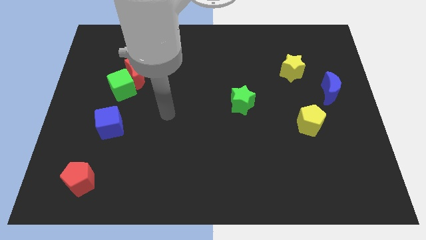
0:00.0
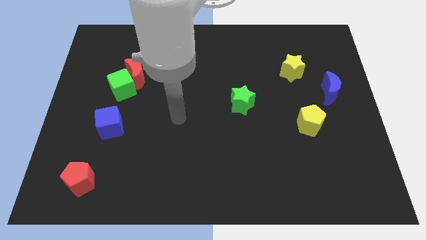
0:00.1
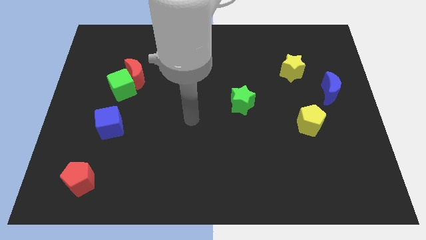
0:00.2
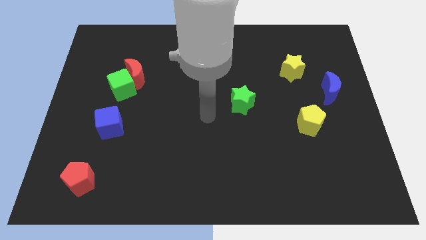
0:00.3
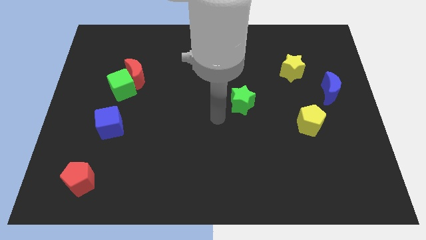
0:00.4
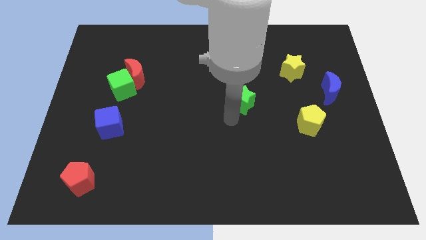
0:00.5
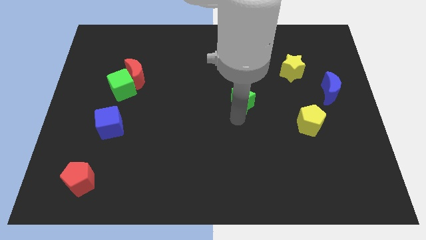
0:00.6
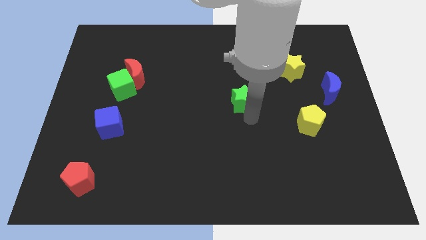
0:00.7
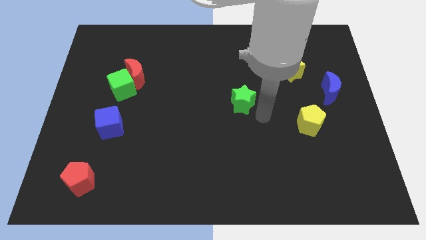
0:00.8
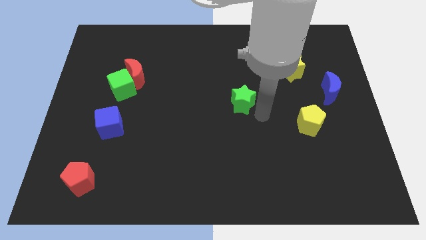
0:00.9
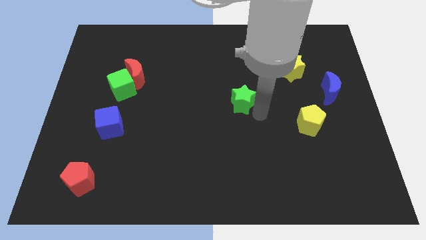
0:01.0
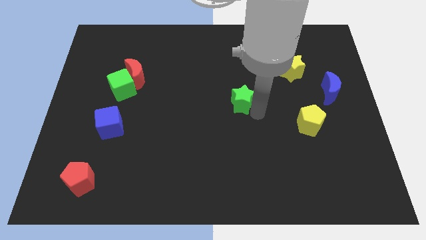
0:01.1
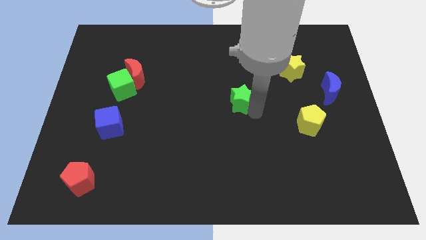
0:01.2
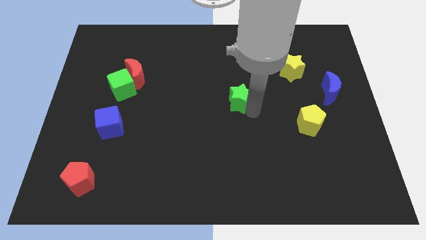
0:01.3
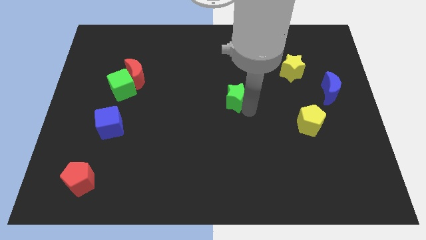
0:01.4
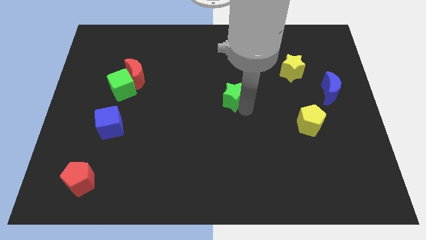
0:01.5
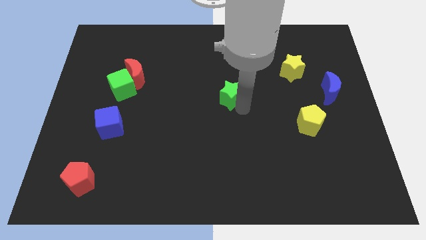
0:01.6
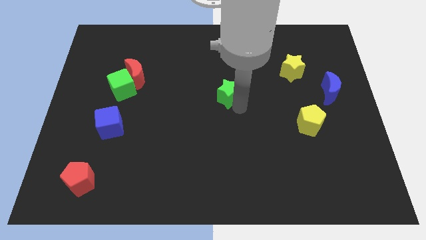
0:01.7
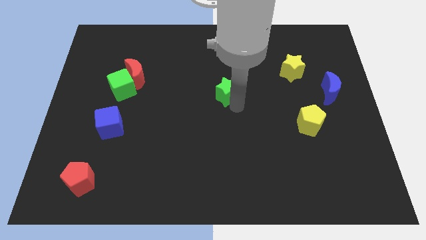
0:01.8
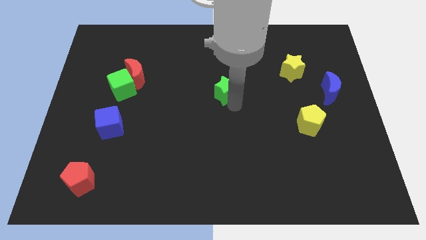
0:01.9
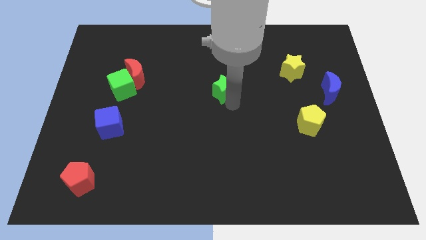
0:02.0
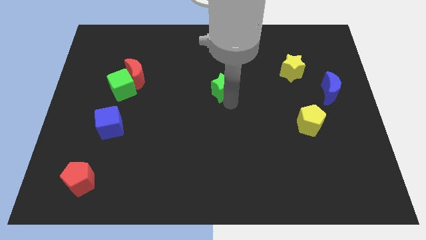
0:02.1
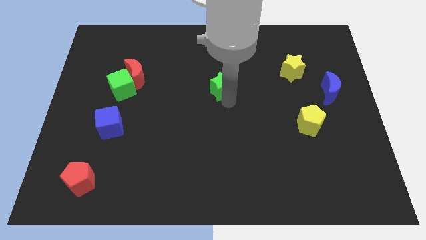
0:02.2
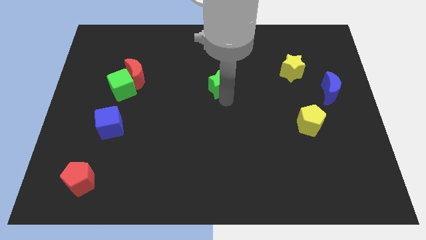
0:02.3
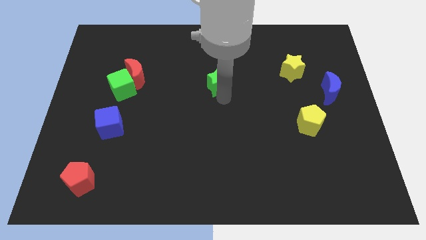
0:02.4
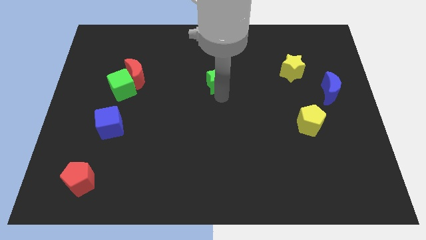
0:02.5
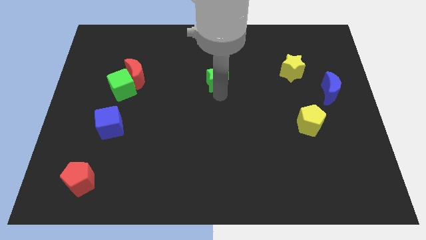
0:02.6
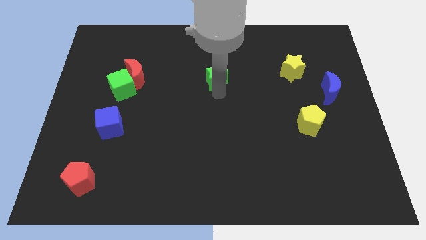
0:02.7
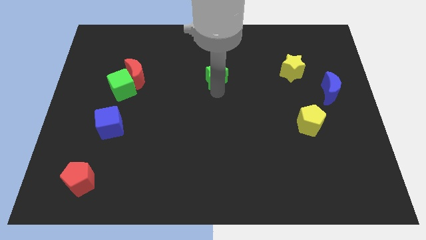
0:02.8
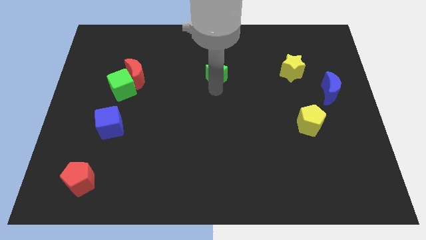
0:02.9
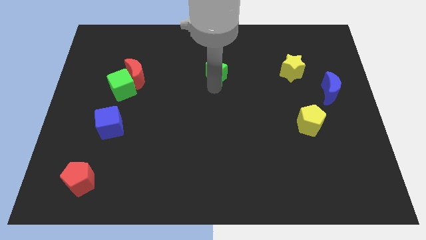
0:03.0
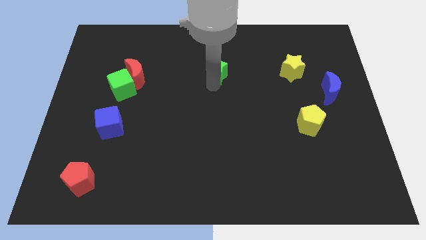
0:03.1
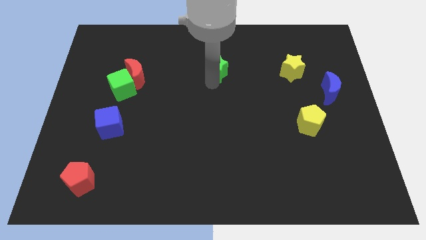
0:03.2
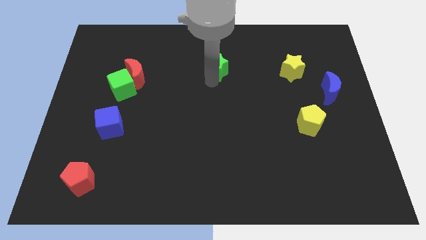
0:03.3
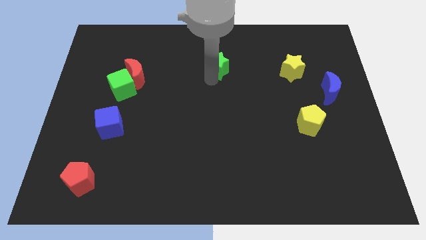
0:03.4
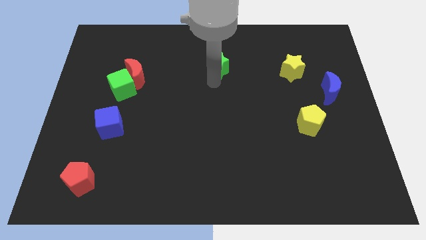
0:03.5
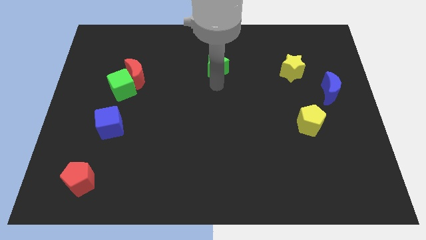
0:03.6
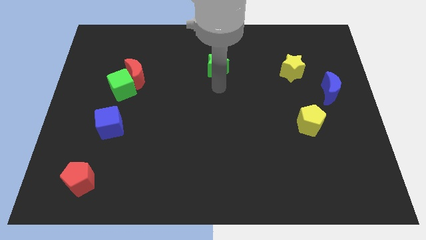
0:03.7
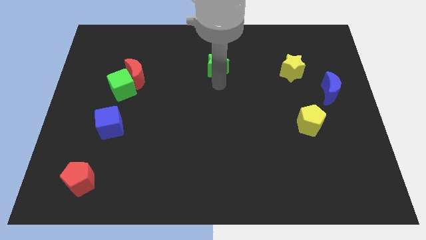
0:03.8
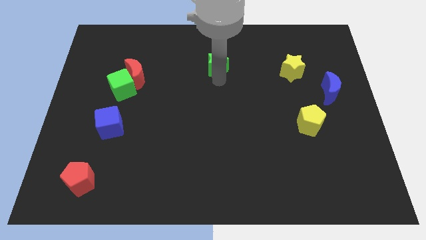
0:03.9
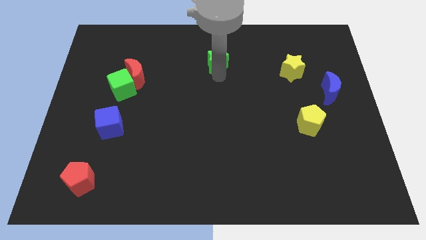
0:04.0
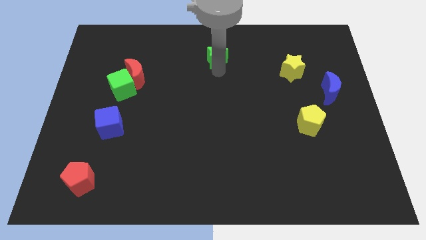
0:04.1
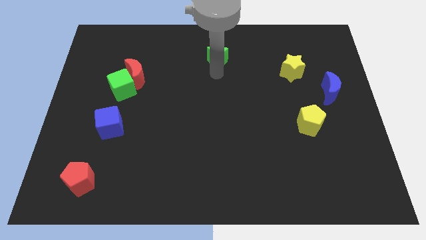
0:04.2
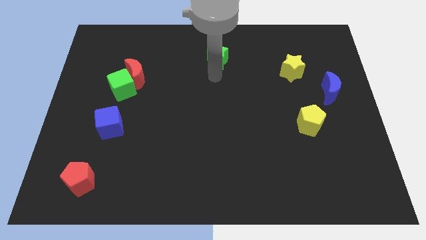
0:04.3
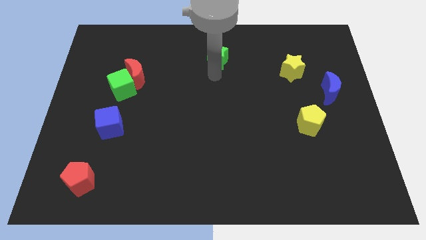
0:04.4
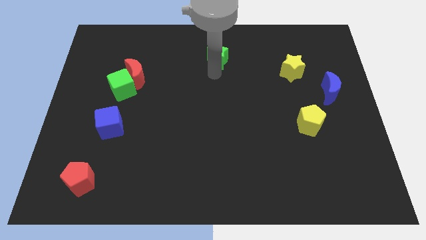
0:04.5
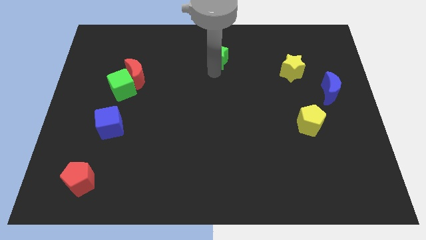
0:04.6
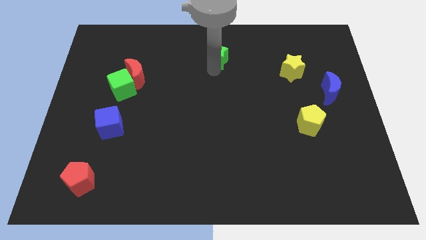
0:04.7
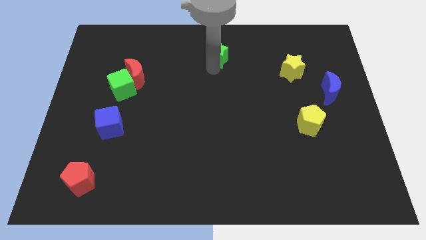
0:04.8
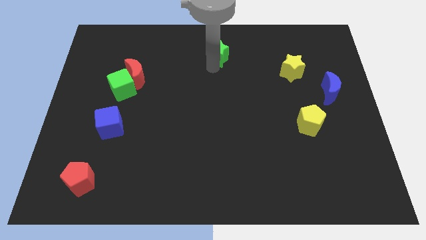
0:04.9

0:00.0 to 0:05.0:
put the green star to the top side

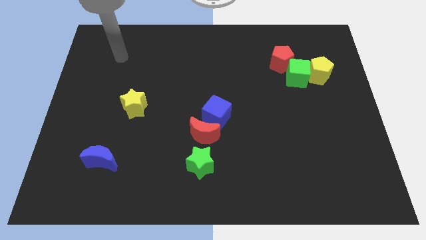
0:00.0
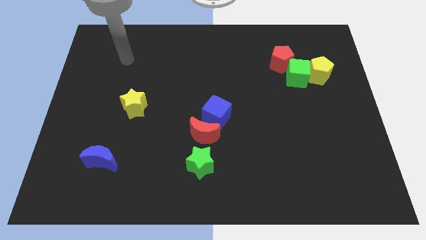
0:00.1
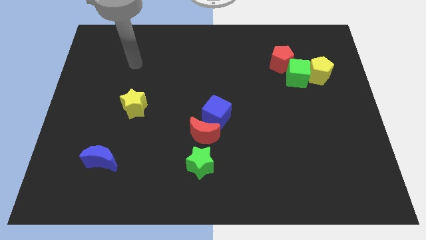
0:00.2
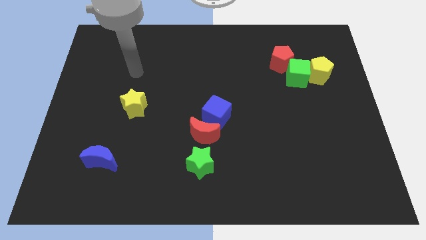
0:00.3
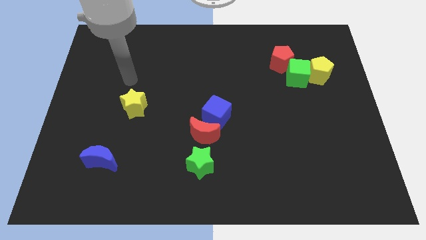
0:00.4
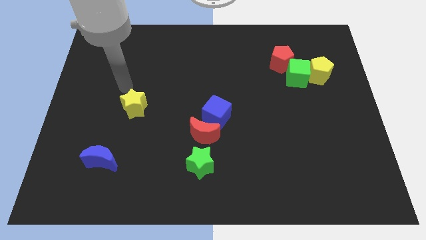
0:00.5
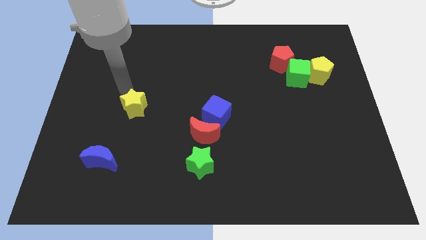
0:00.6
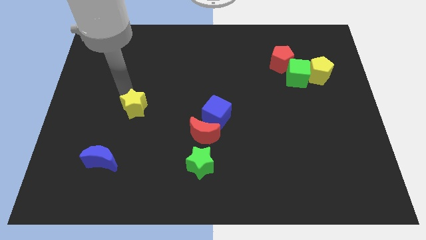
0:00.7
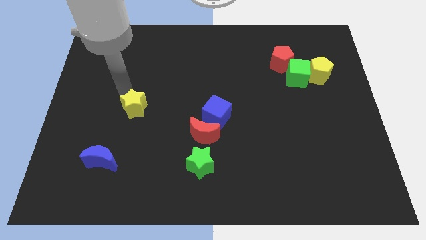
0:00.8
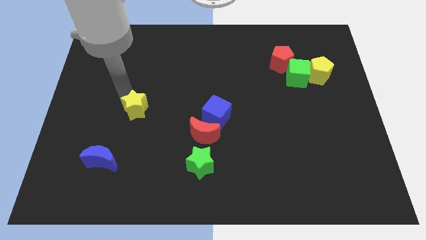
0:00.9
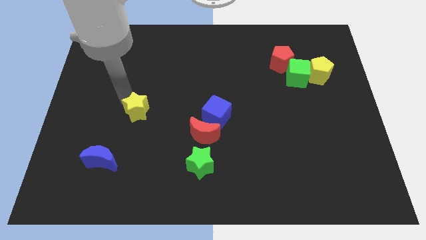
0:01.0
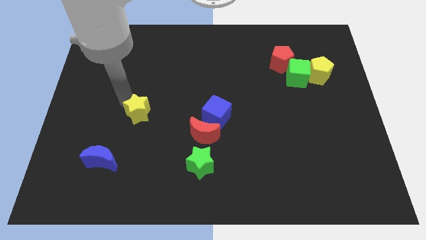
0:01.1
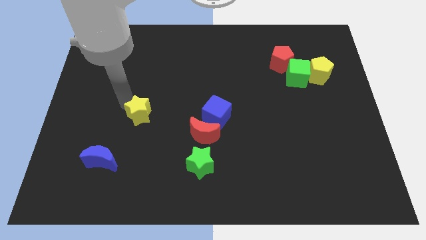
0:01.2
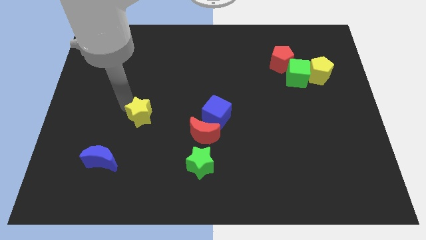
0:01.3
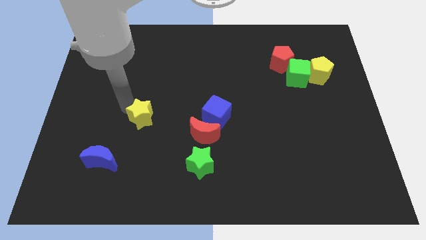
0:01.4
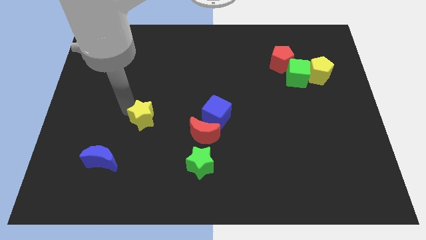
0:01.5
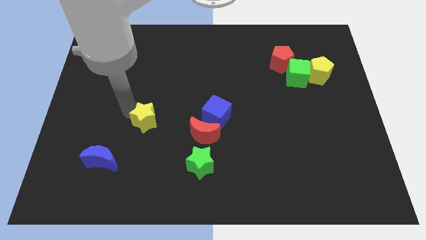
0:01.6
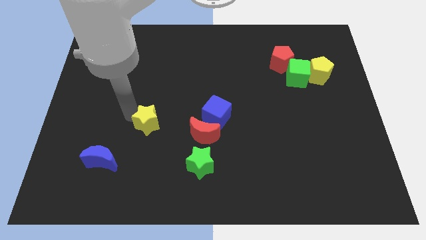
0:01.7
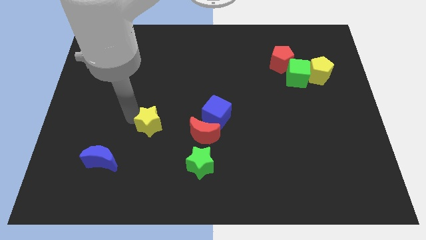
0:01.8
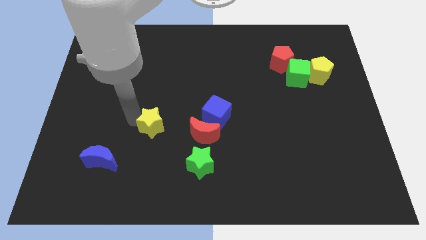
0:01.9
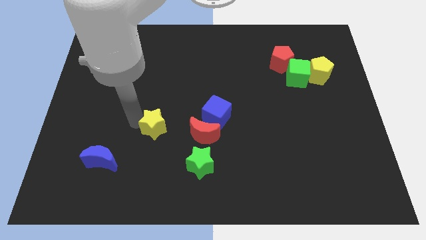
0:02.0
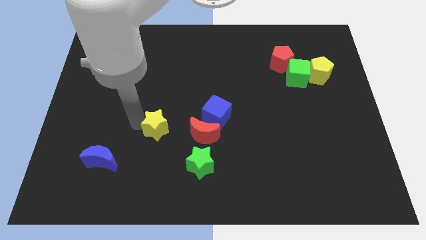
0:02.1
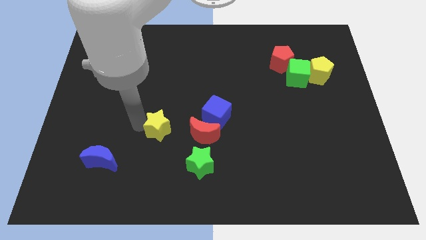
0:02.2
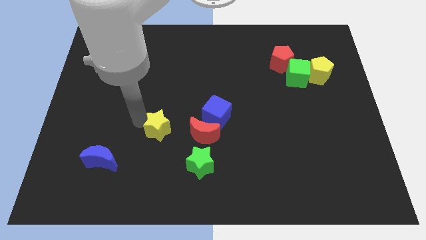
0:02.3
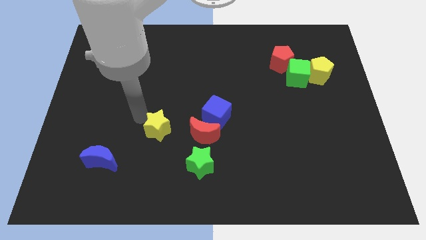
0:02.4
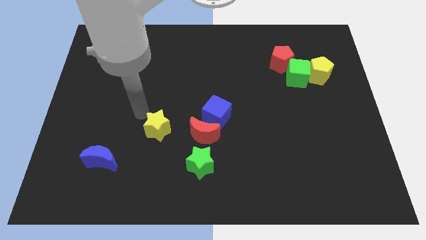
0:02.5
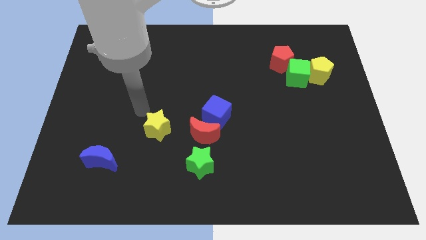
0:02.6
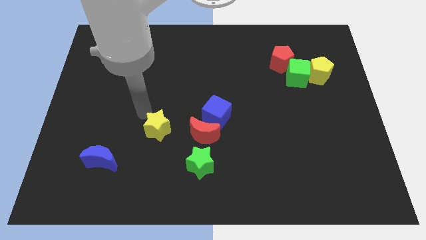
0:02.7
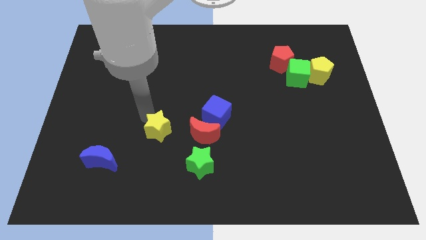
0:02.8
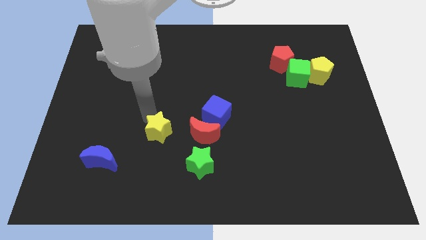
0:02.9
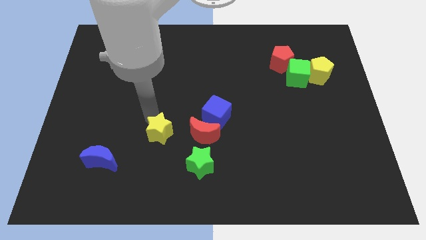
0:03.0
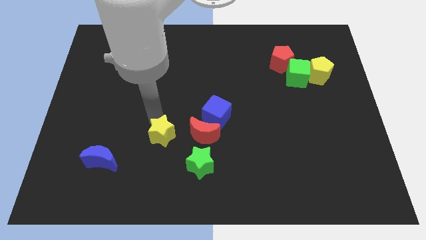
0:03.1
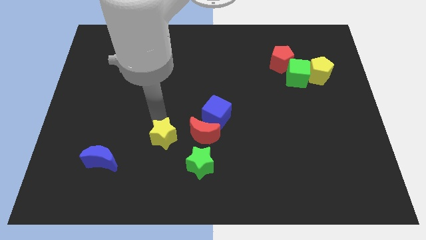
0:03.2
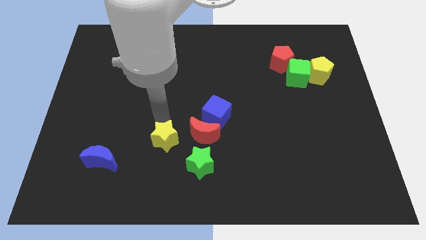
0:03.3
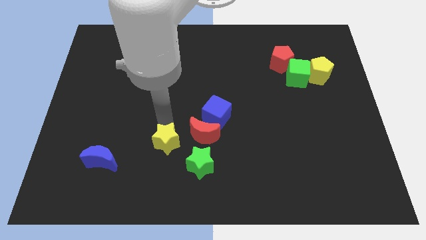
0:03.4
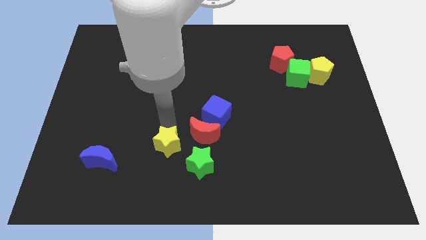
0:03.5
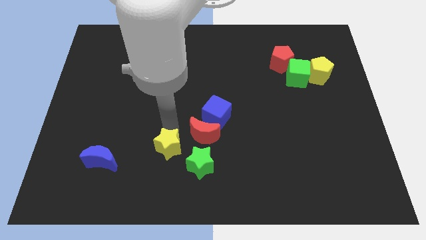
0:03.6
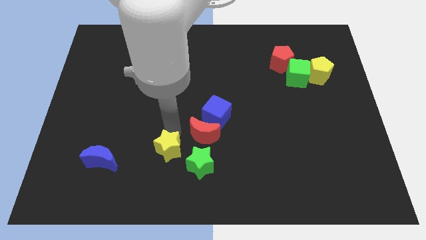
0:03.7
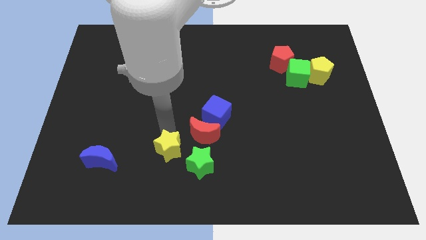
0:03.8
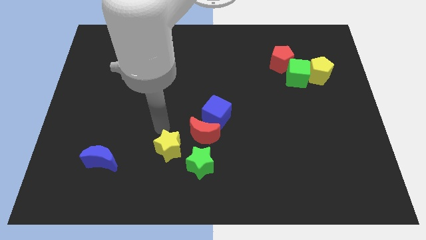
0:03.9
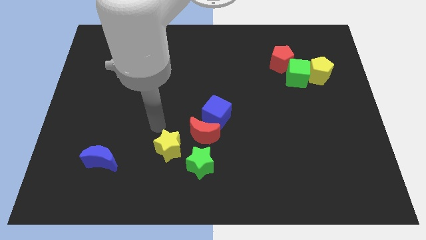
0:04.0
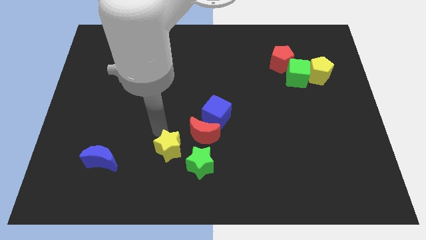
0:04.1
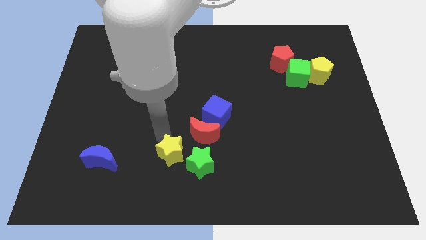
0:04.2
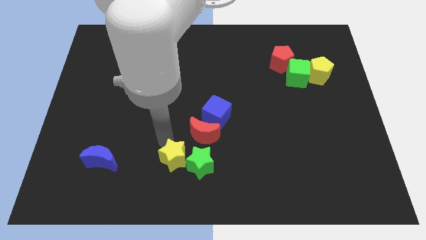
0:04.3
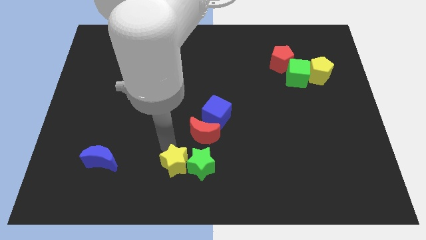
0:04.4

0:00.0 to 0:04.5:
slide the yellow star to the bottom
